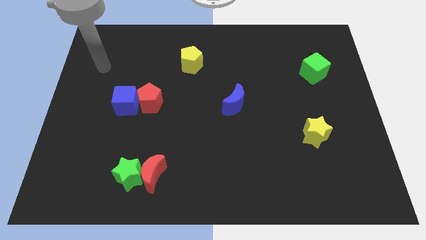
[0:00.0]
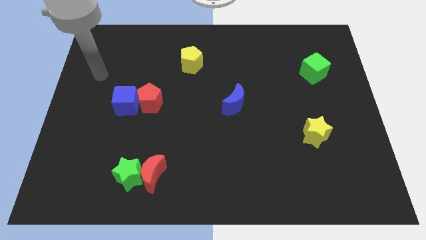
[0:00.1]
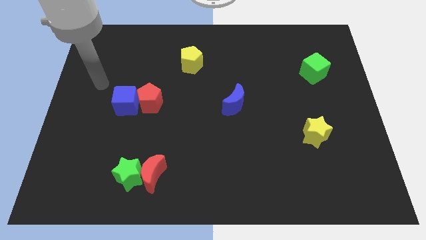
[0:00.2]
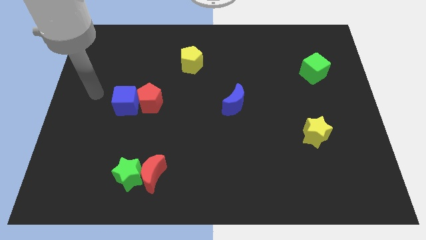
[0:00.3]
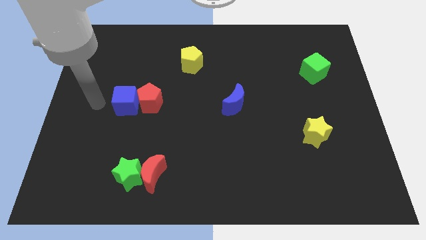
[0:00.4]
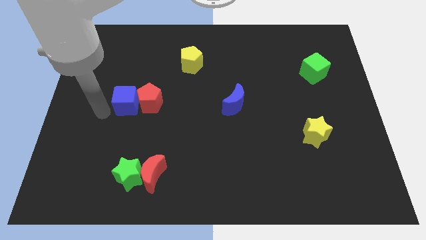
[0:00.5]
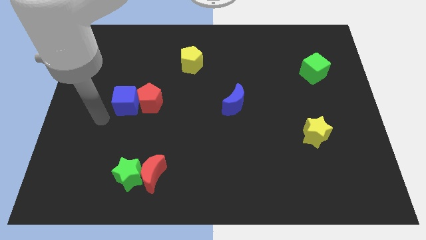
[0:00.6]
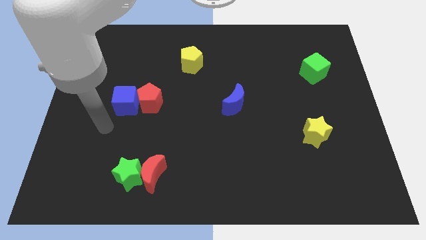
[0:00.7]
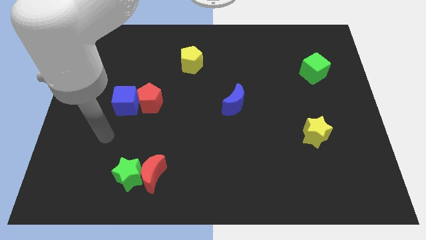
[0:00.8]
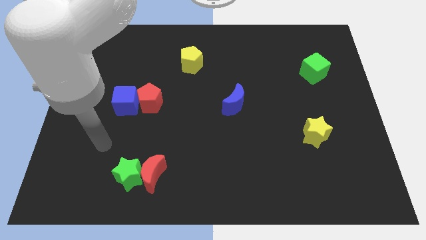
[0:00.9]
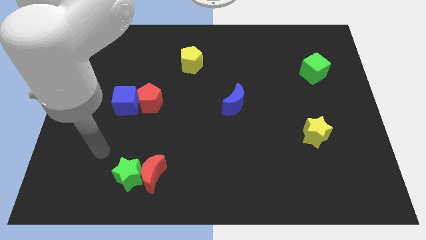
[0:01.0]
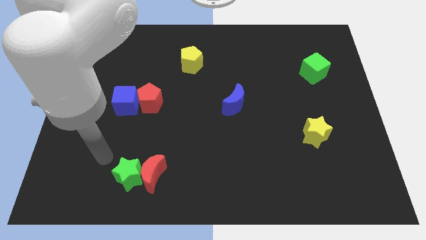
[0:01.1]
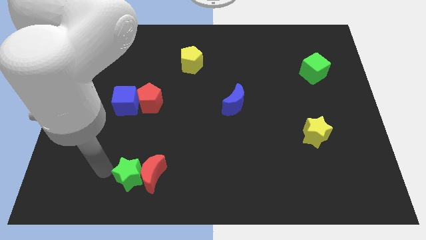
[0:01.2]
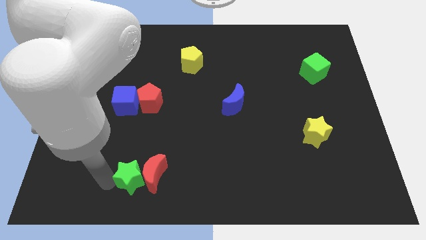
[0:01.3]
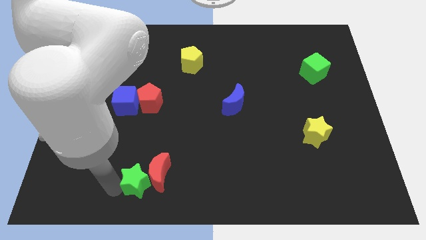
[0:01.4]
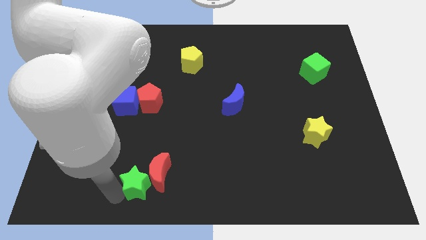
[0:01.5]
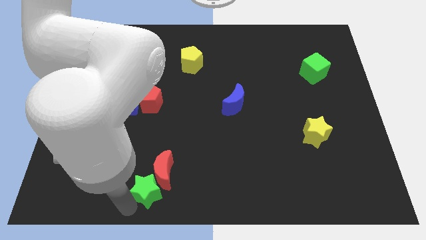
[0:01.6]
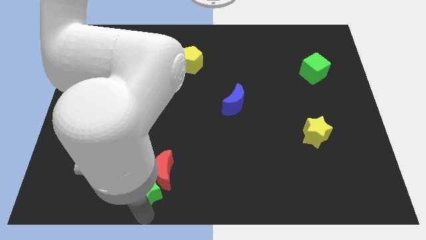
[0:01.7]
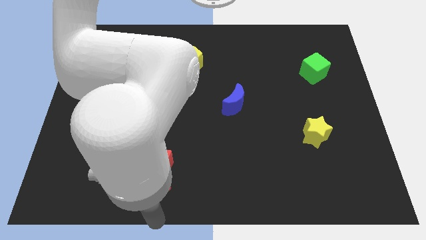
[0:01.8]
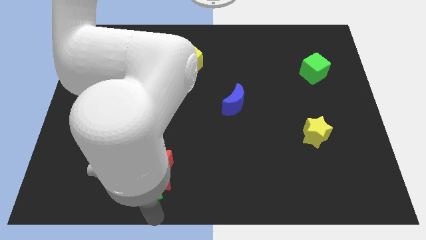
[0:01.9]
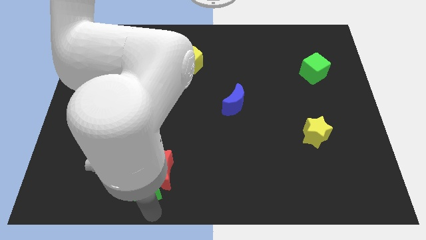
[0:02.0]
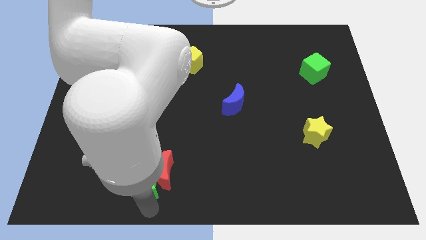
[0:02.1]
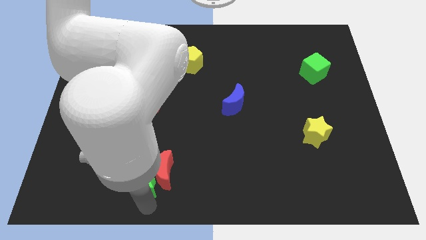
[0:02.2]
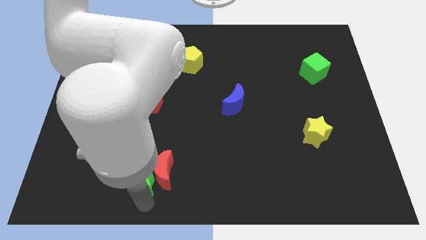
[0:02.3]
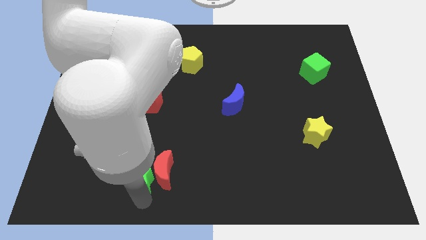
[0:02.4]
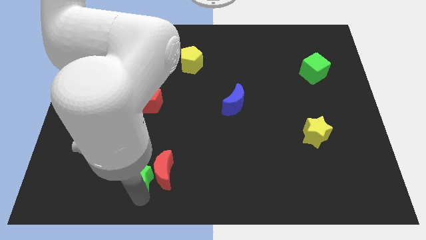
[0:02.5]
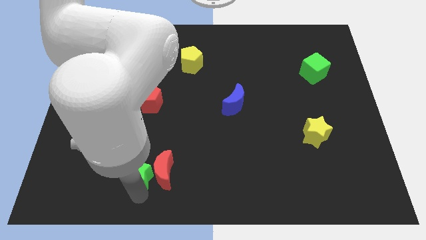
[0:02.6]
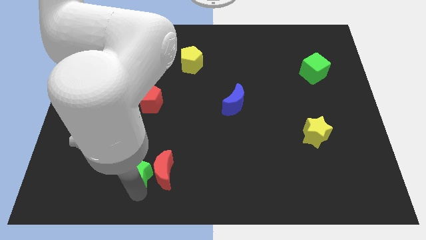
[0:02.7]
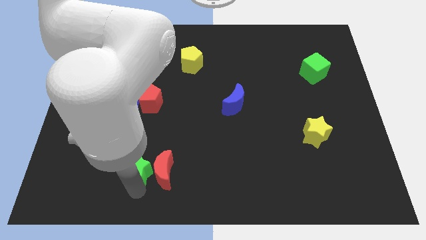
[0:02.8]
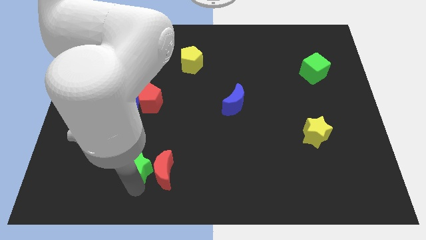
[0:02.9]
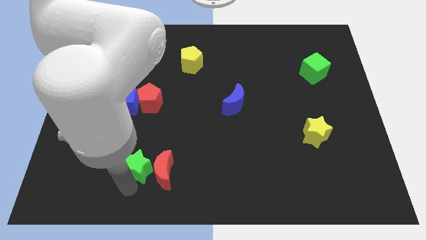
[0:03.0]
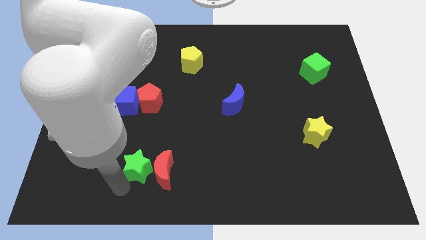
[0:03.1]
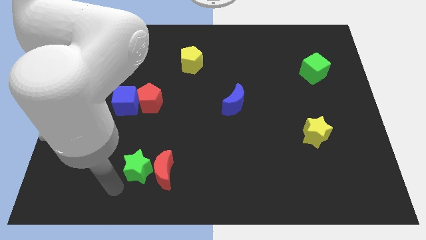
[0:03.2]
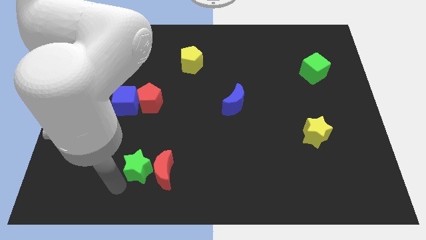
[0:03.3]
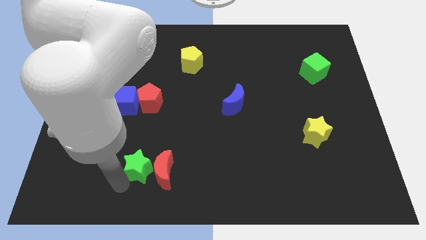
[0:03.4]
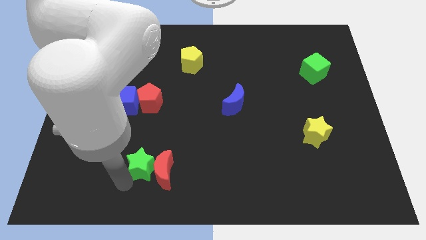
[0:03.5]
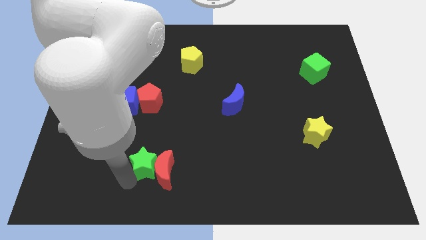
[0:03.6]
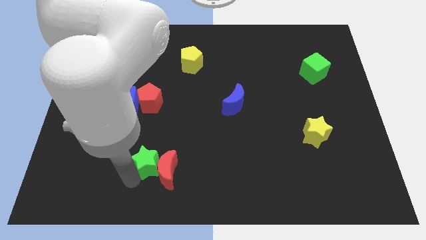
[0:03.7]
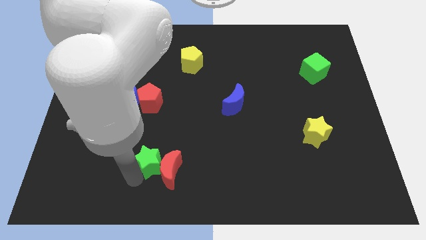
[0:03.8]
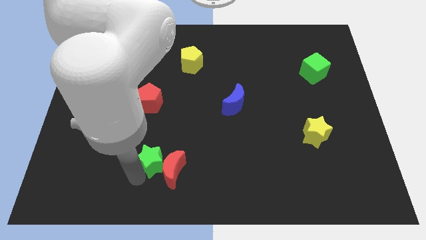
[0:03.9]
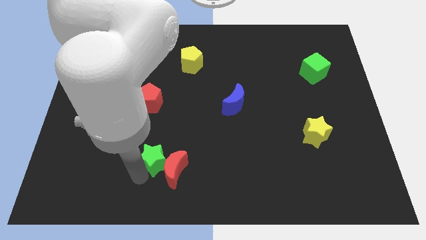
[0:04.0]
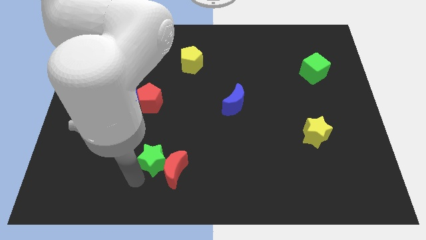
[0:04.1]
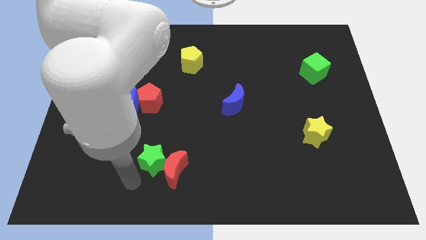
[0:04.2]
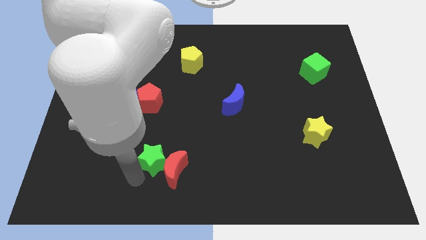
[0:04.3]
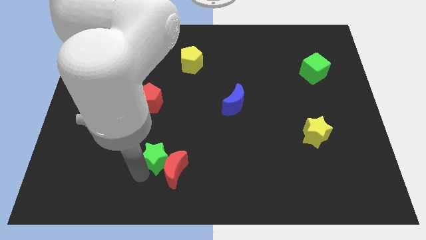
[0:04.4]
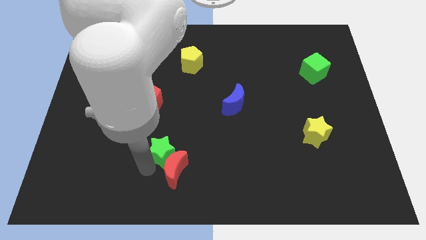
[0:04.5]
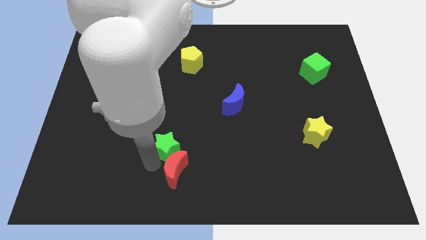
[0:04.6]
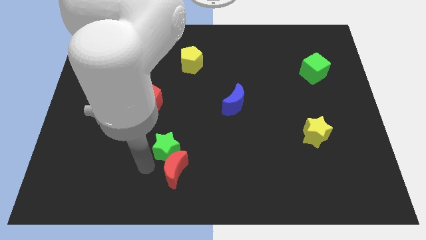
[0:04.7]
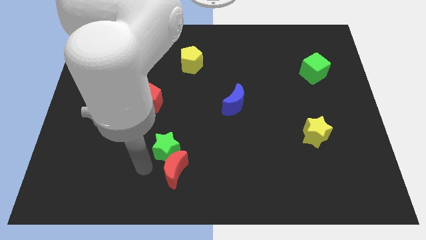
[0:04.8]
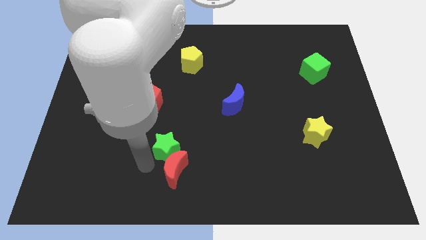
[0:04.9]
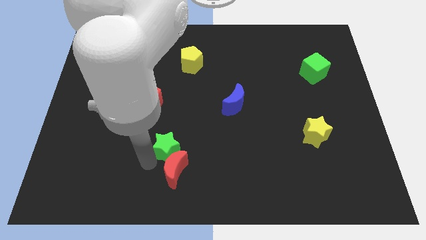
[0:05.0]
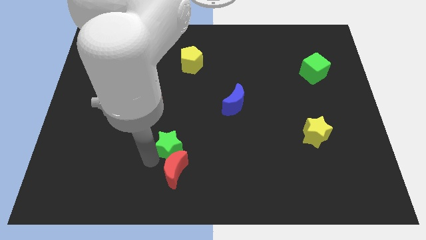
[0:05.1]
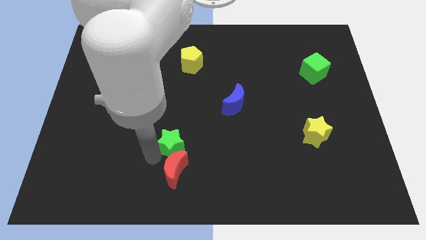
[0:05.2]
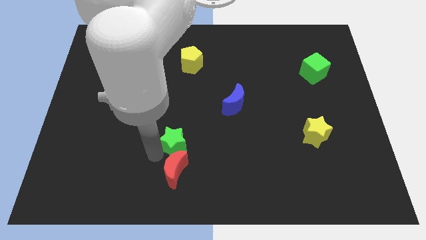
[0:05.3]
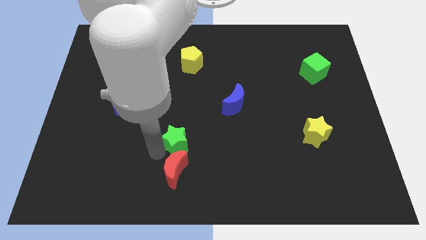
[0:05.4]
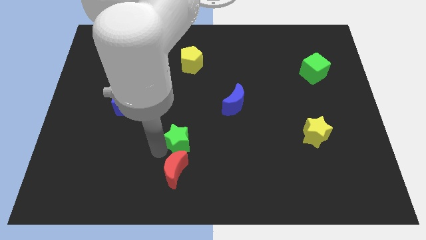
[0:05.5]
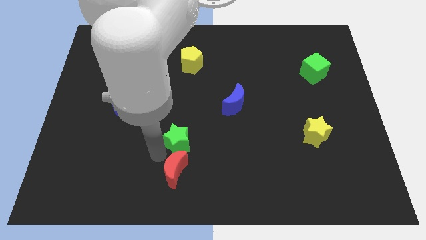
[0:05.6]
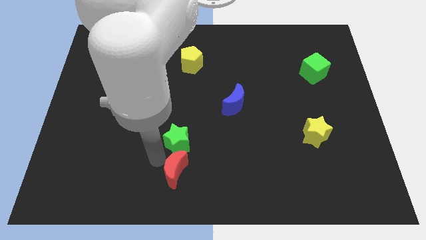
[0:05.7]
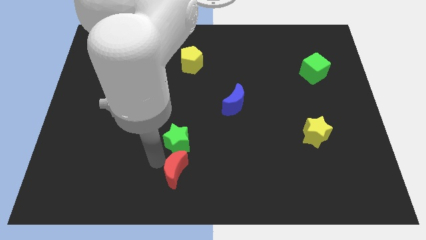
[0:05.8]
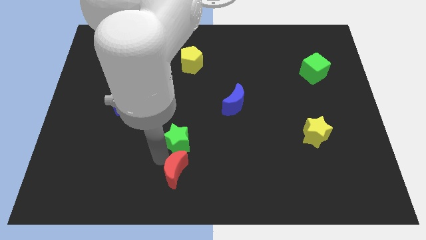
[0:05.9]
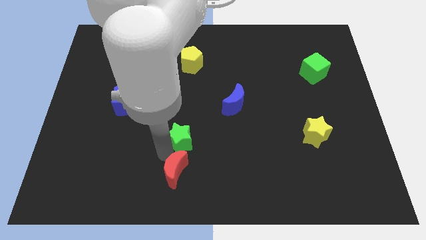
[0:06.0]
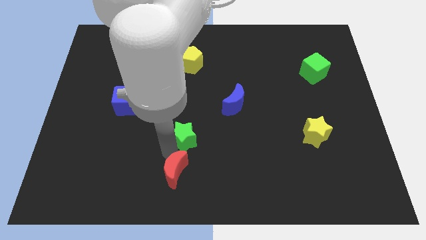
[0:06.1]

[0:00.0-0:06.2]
slide the green star to the center
